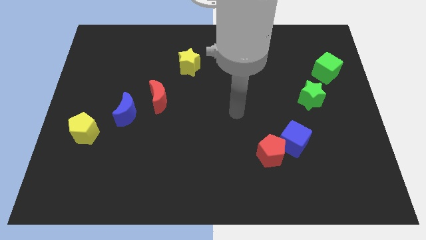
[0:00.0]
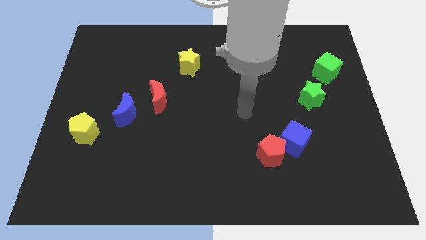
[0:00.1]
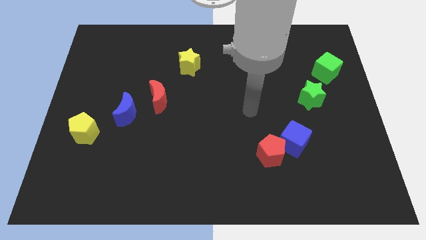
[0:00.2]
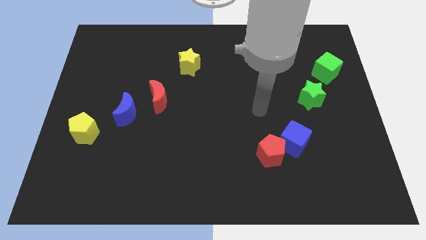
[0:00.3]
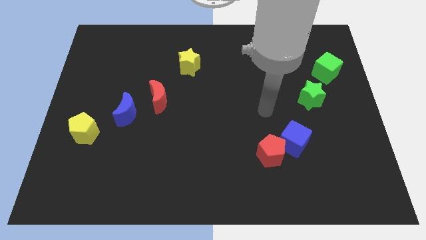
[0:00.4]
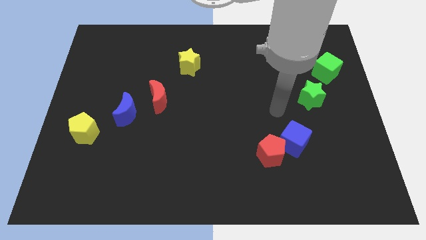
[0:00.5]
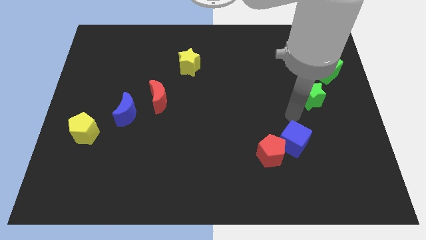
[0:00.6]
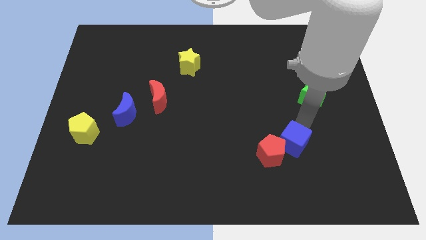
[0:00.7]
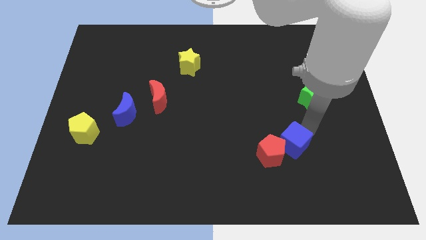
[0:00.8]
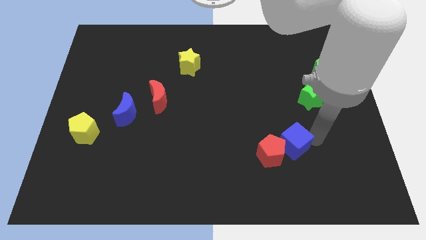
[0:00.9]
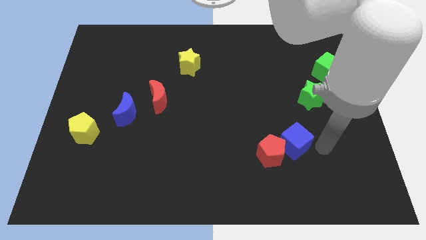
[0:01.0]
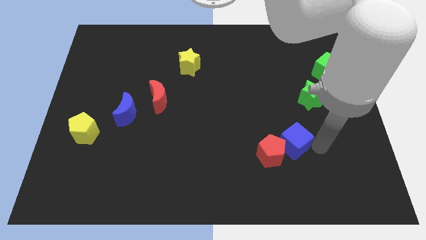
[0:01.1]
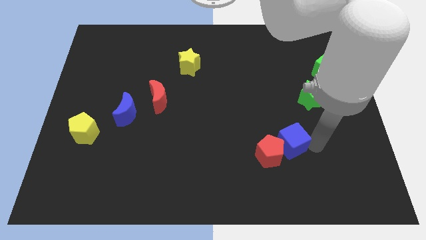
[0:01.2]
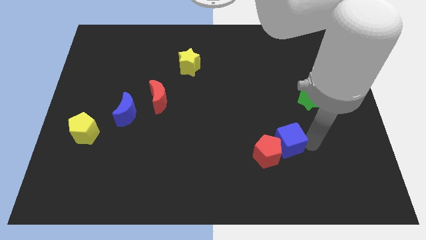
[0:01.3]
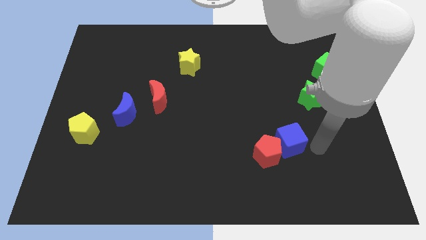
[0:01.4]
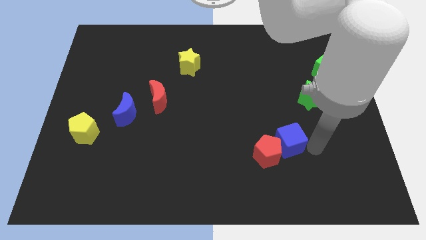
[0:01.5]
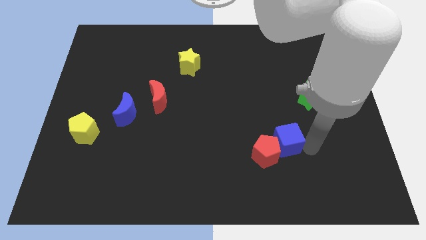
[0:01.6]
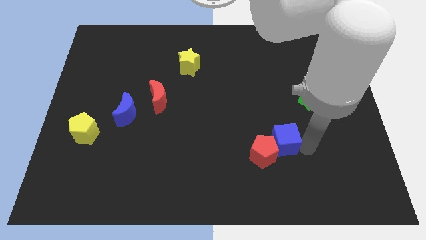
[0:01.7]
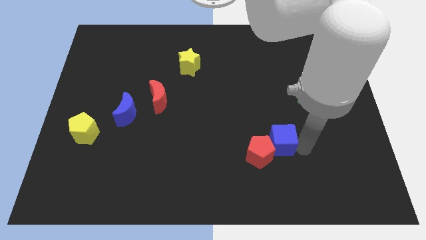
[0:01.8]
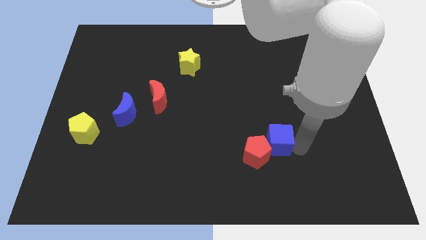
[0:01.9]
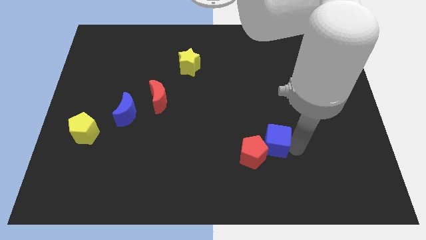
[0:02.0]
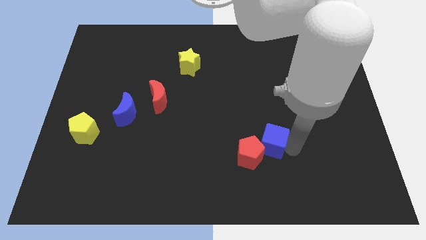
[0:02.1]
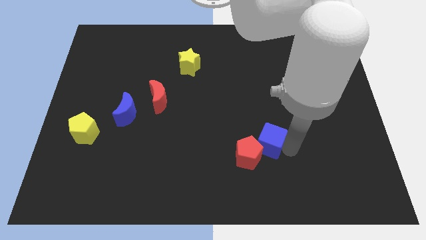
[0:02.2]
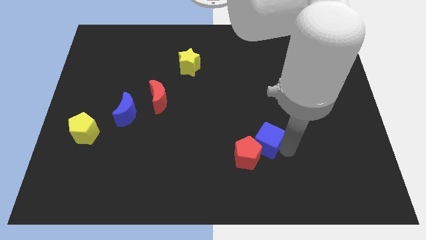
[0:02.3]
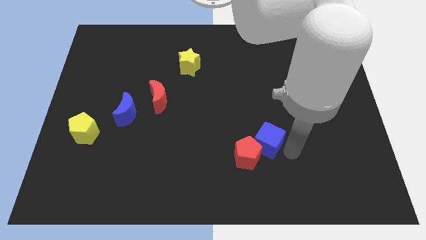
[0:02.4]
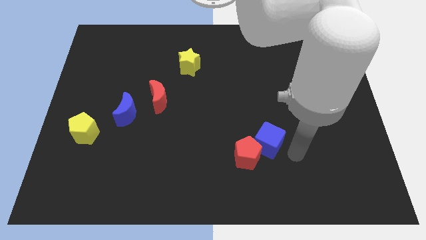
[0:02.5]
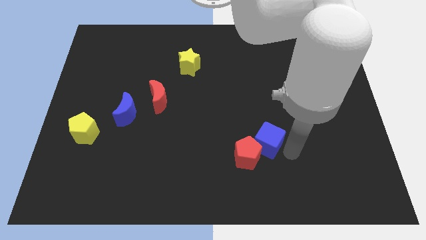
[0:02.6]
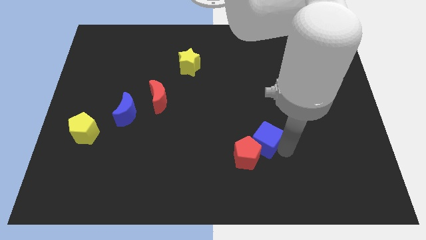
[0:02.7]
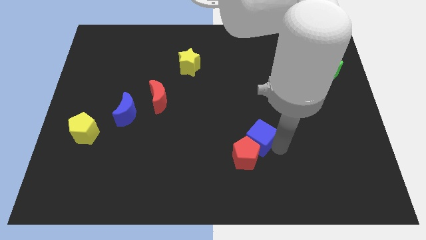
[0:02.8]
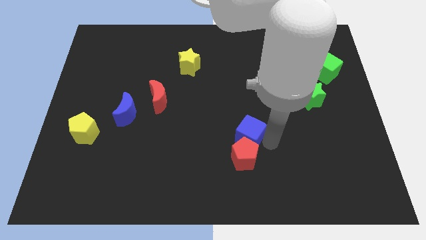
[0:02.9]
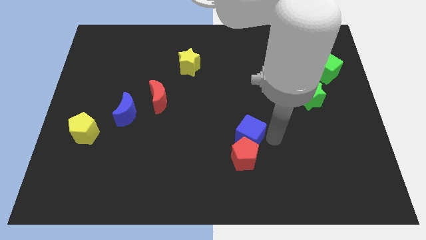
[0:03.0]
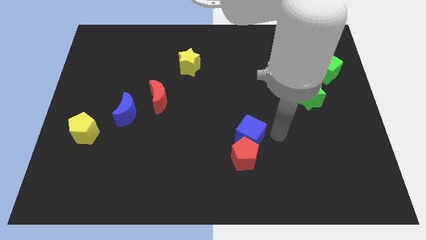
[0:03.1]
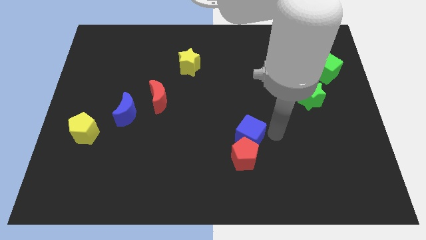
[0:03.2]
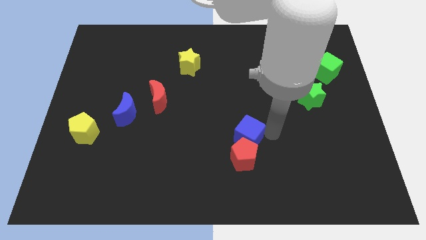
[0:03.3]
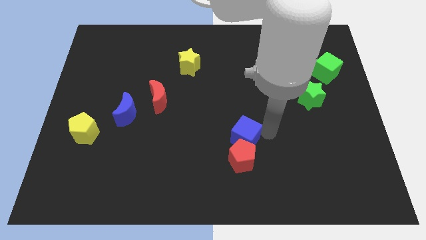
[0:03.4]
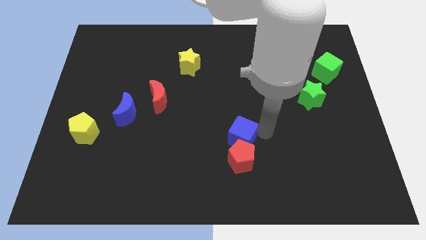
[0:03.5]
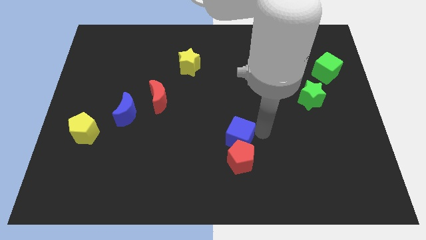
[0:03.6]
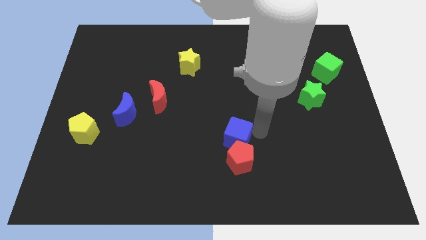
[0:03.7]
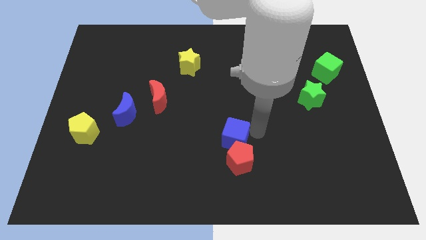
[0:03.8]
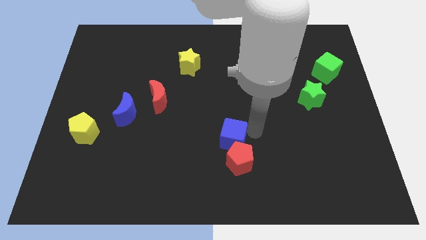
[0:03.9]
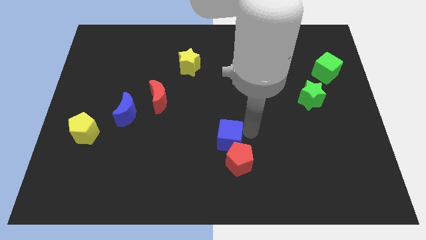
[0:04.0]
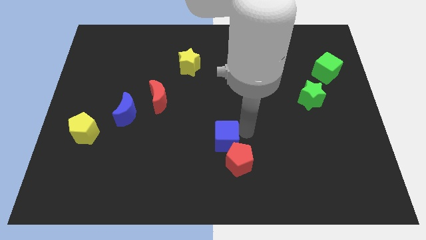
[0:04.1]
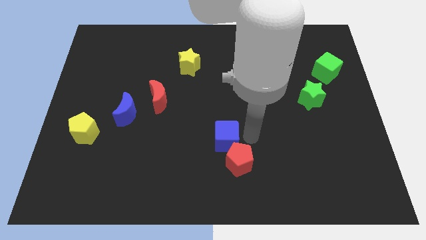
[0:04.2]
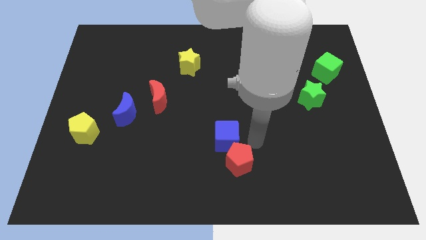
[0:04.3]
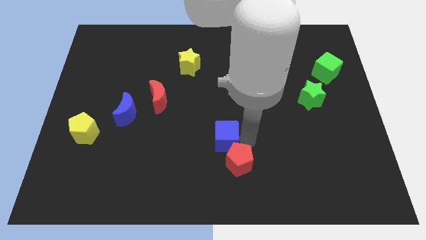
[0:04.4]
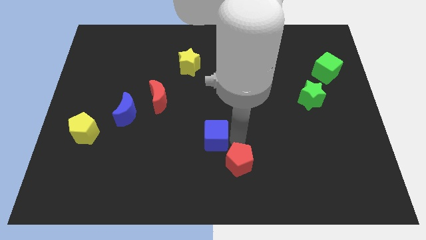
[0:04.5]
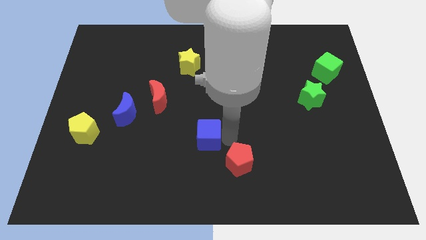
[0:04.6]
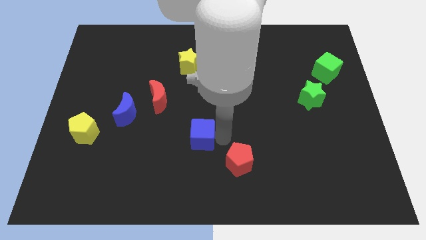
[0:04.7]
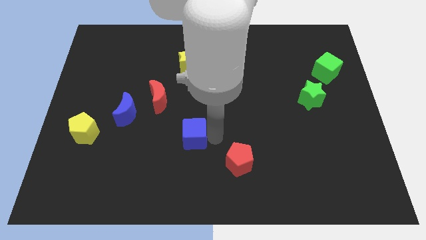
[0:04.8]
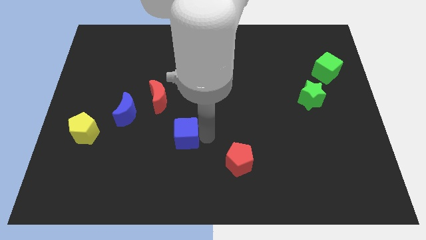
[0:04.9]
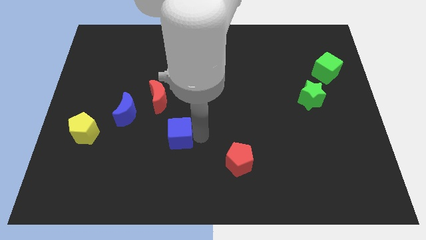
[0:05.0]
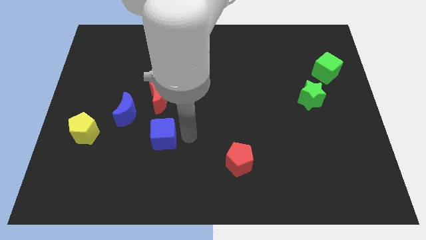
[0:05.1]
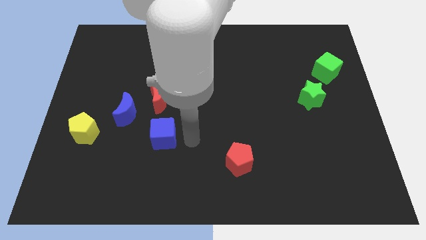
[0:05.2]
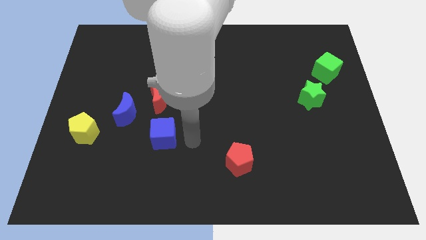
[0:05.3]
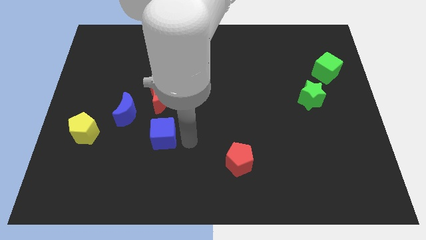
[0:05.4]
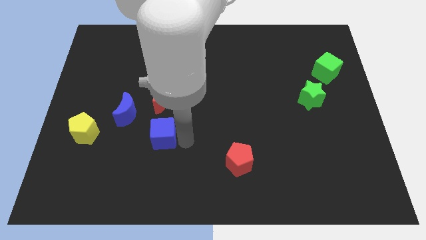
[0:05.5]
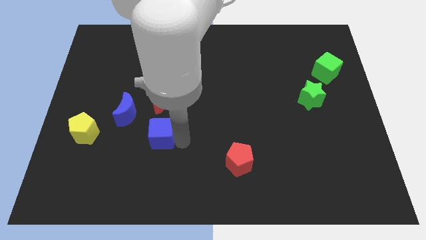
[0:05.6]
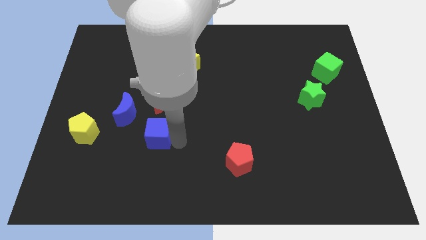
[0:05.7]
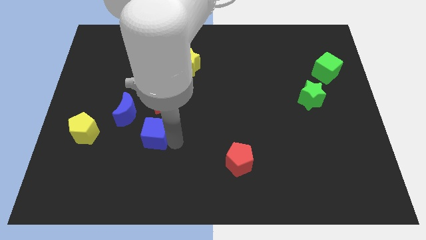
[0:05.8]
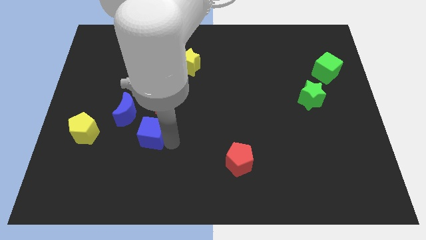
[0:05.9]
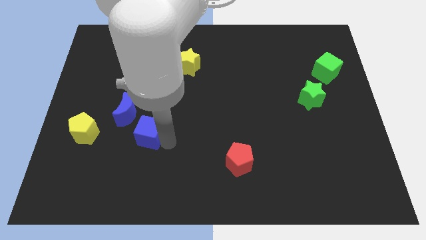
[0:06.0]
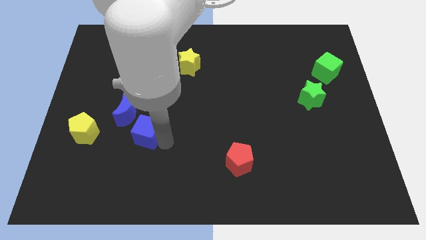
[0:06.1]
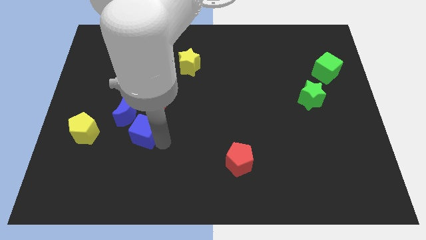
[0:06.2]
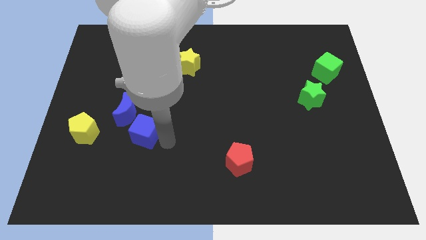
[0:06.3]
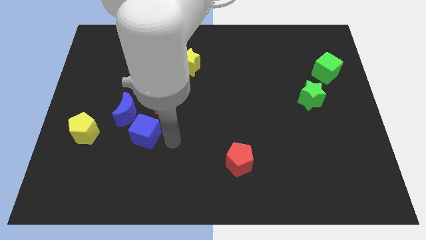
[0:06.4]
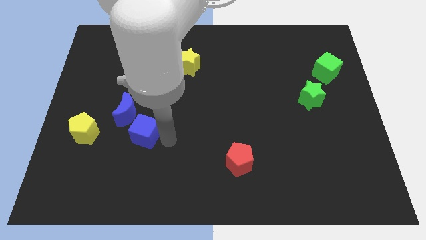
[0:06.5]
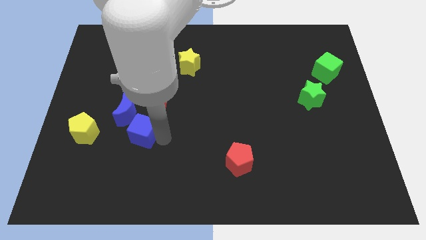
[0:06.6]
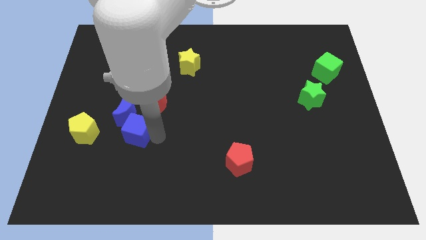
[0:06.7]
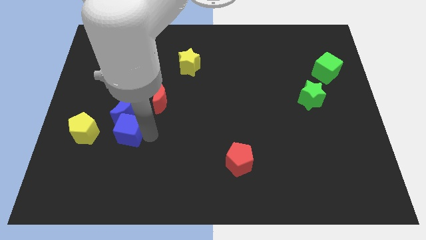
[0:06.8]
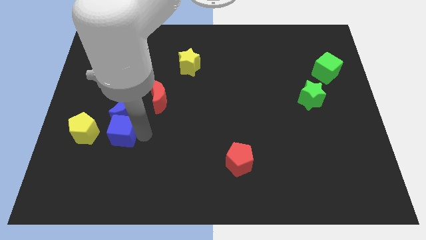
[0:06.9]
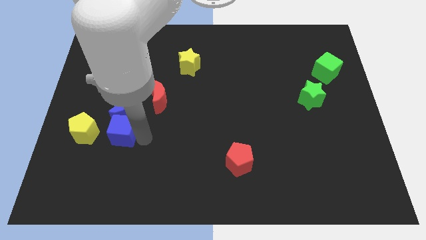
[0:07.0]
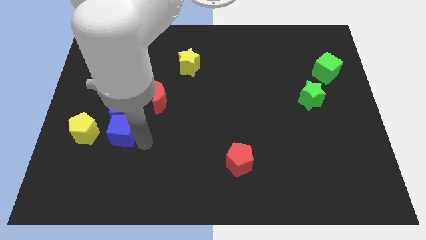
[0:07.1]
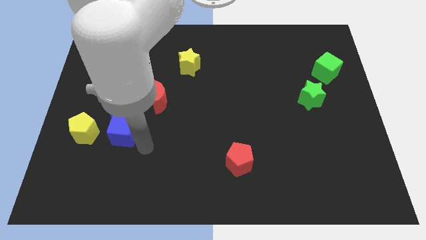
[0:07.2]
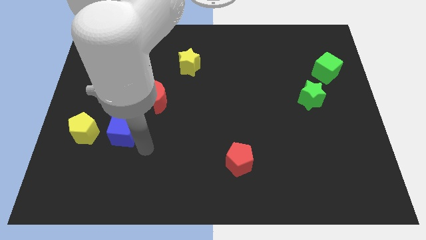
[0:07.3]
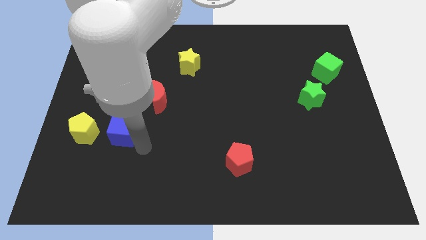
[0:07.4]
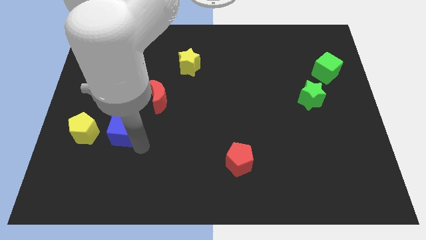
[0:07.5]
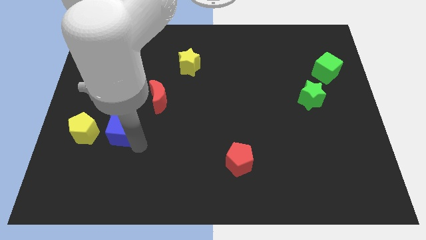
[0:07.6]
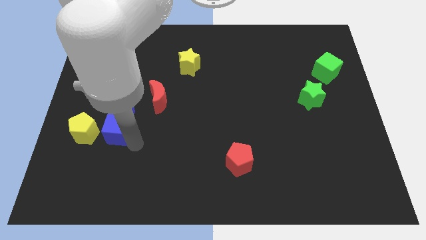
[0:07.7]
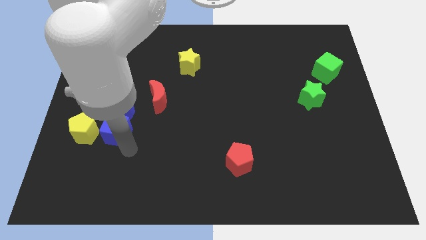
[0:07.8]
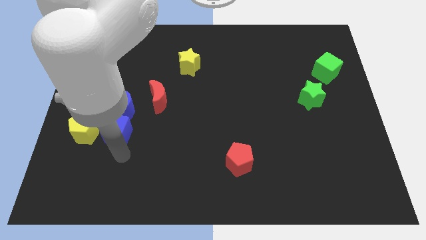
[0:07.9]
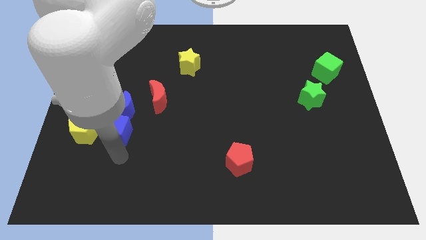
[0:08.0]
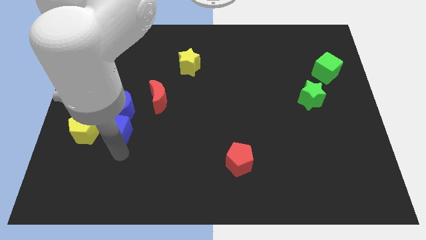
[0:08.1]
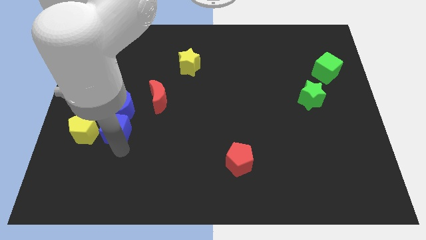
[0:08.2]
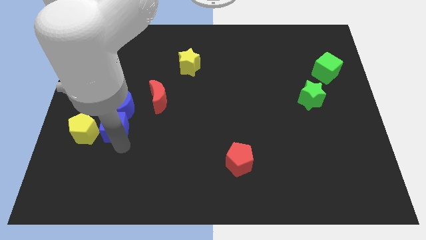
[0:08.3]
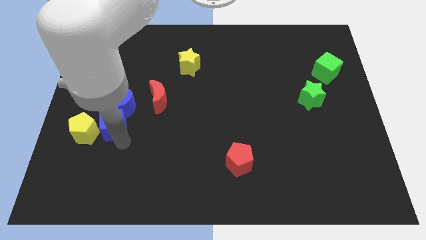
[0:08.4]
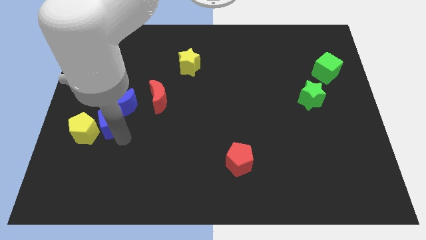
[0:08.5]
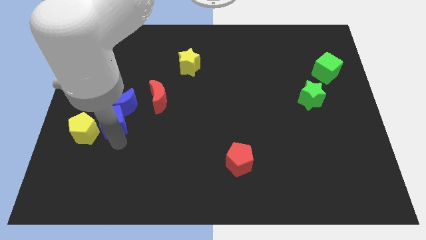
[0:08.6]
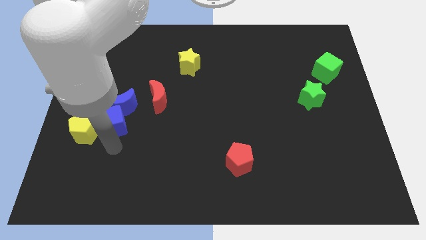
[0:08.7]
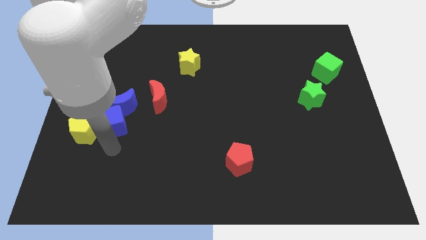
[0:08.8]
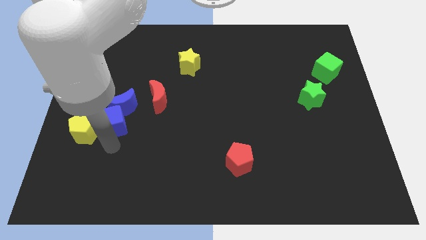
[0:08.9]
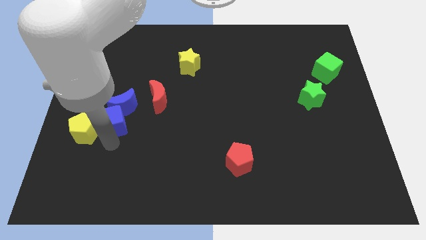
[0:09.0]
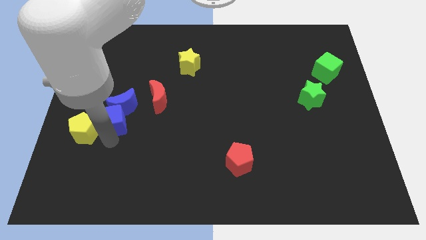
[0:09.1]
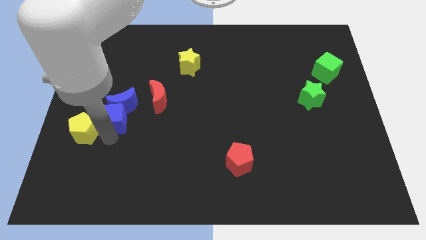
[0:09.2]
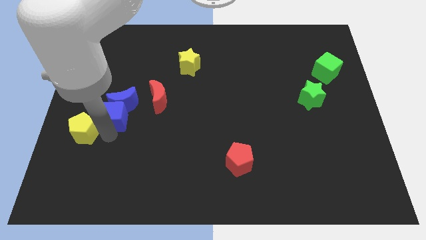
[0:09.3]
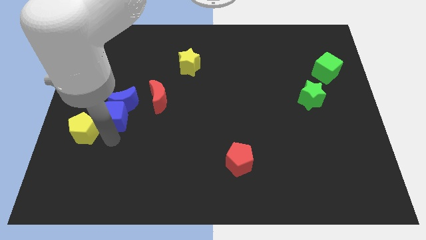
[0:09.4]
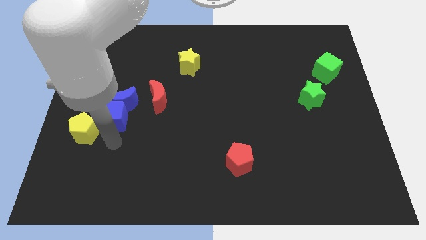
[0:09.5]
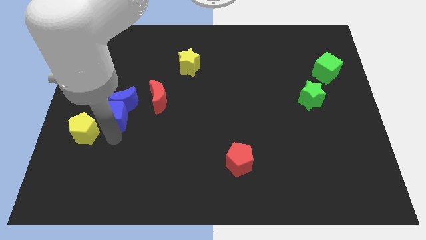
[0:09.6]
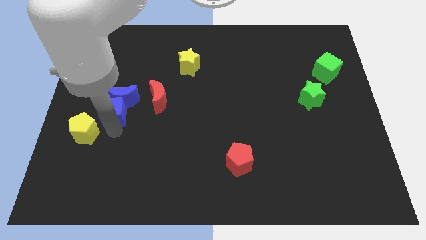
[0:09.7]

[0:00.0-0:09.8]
push the blue cube left of the red moon
